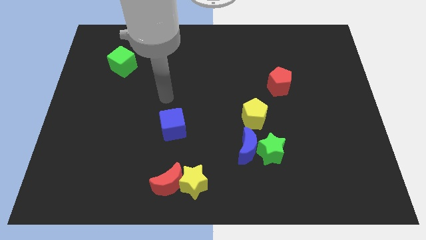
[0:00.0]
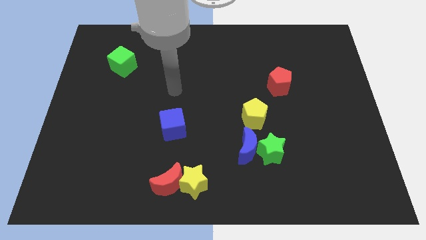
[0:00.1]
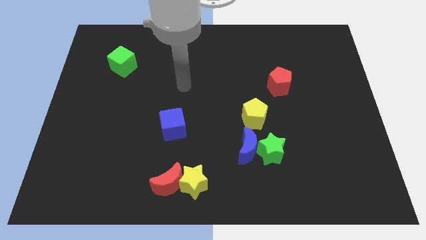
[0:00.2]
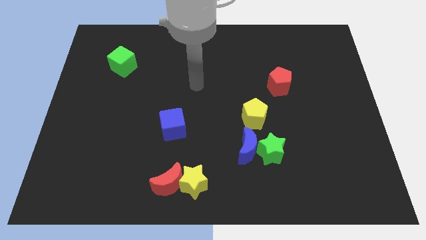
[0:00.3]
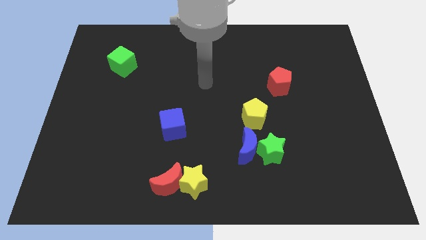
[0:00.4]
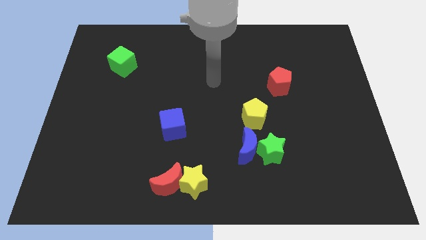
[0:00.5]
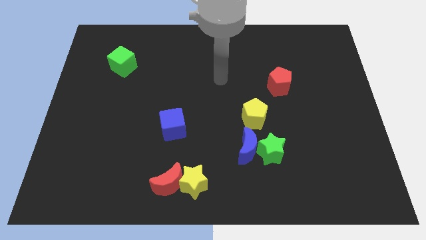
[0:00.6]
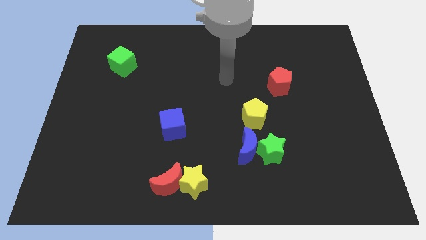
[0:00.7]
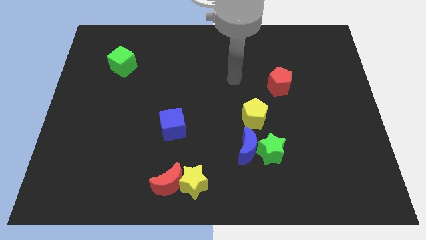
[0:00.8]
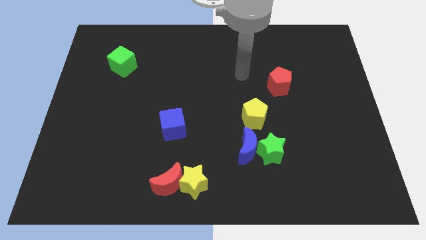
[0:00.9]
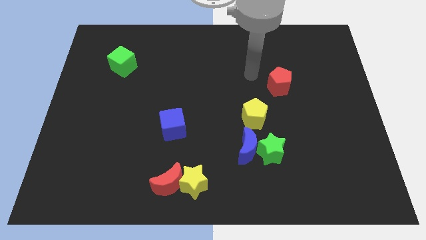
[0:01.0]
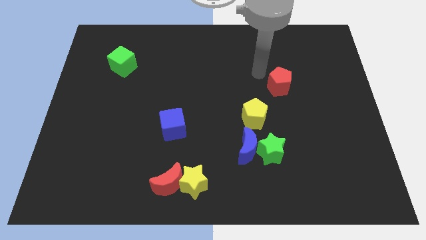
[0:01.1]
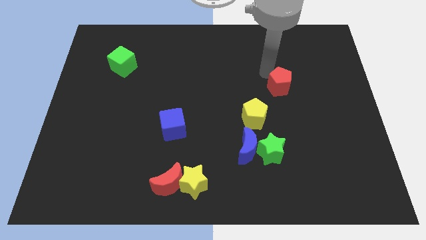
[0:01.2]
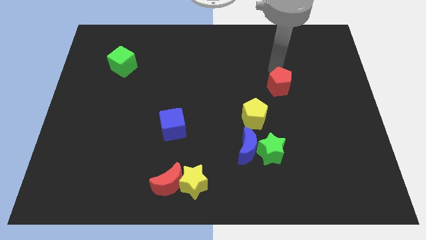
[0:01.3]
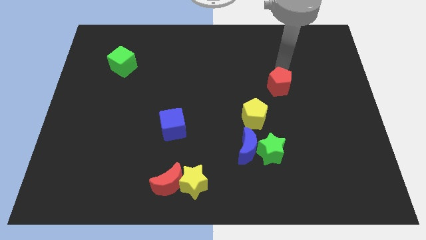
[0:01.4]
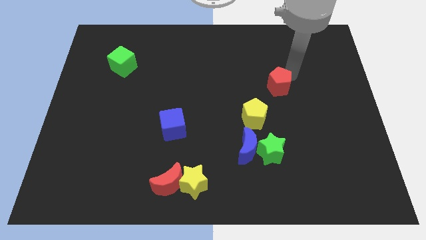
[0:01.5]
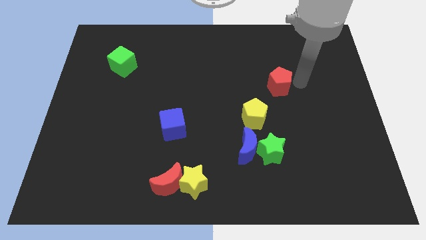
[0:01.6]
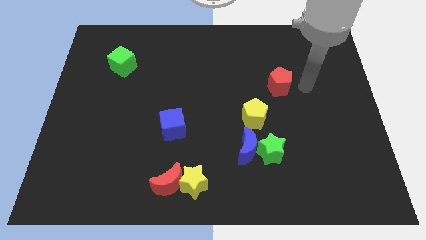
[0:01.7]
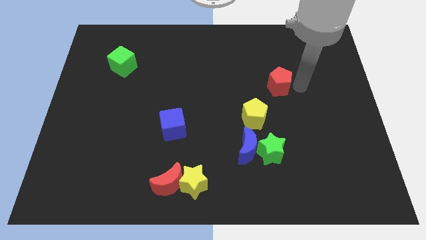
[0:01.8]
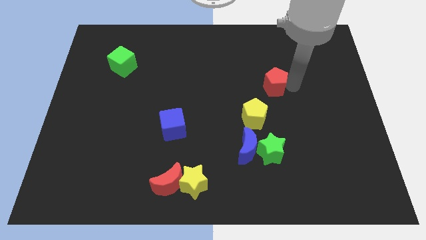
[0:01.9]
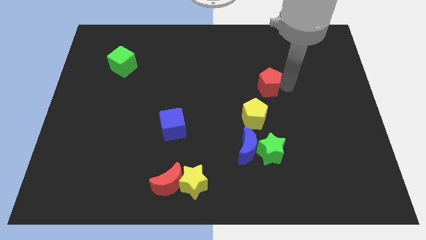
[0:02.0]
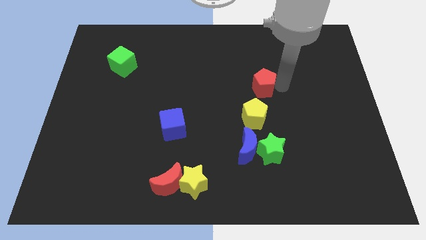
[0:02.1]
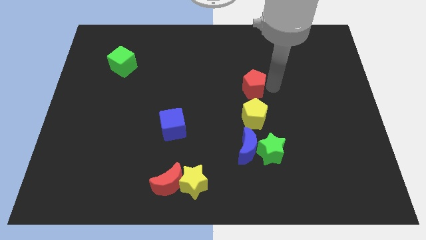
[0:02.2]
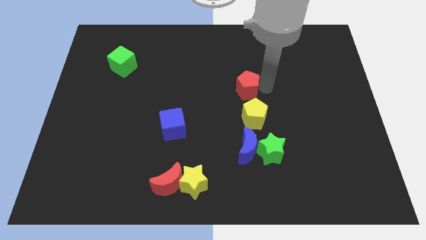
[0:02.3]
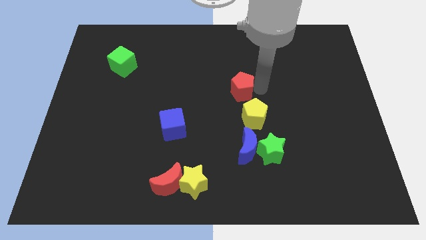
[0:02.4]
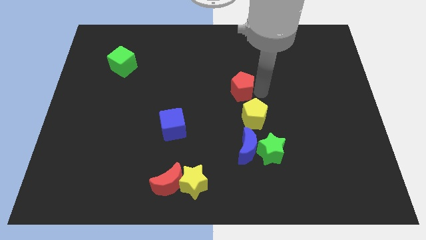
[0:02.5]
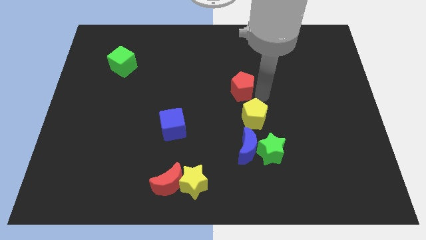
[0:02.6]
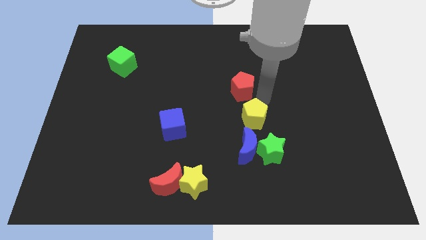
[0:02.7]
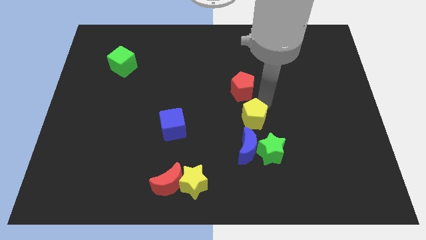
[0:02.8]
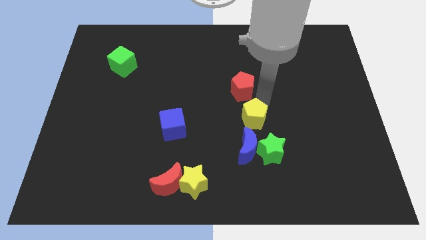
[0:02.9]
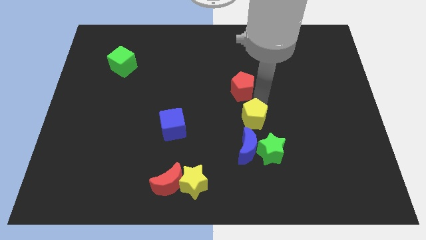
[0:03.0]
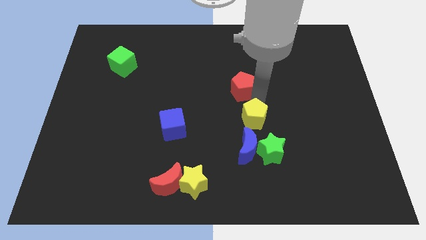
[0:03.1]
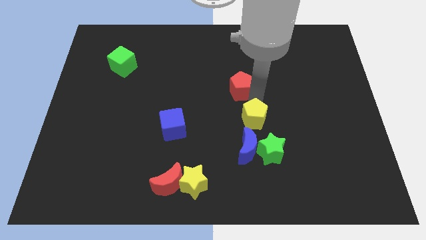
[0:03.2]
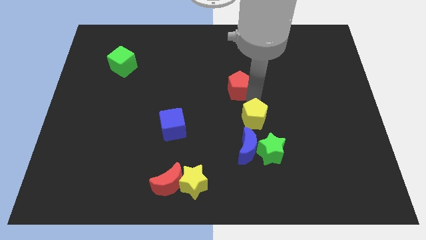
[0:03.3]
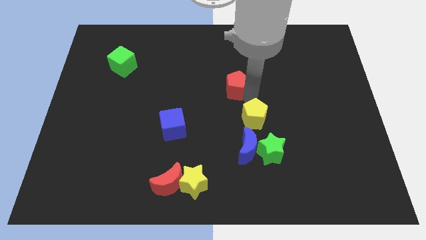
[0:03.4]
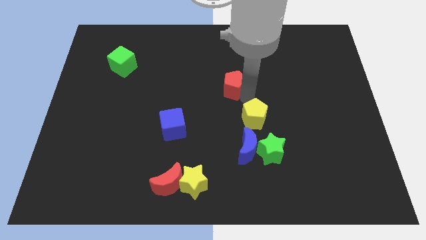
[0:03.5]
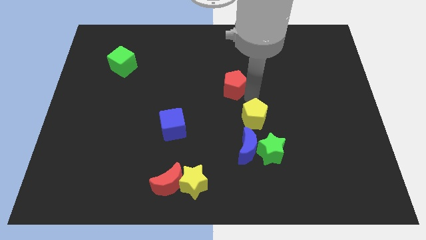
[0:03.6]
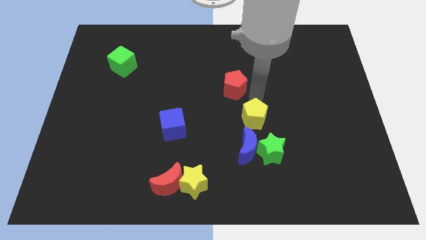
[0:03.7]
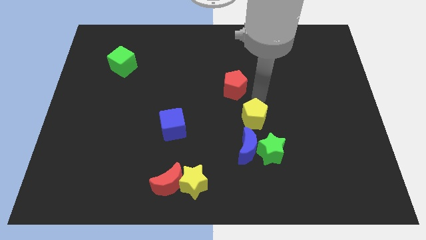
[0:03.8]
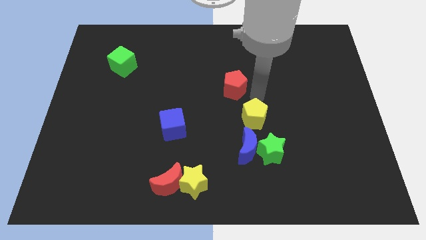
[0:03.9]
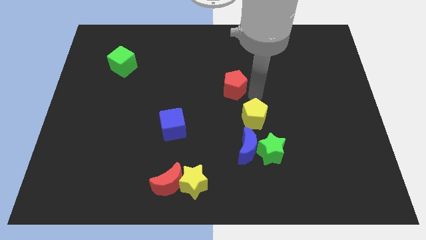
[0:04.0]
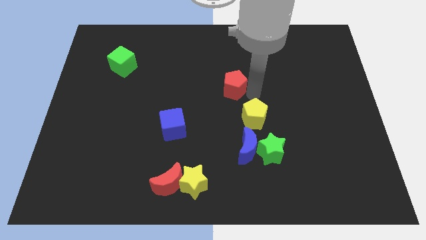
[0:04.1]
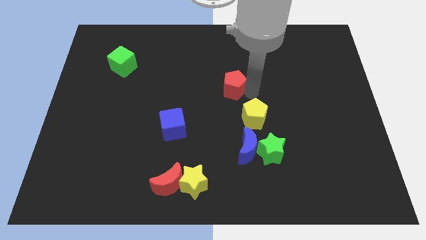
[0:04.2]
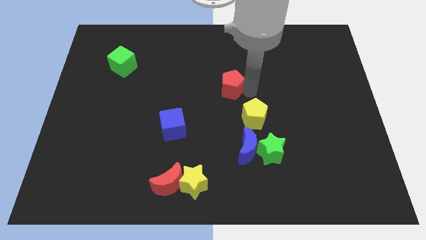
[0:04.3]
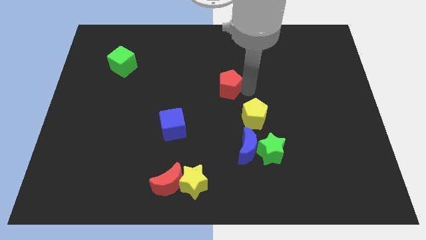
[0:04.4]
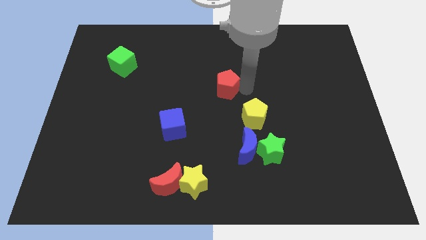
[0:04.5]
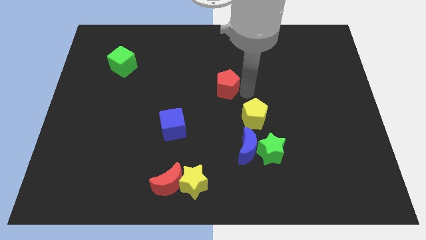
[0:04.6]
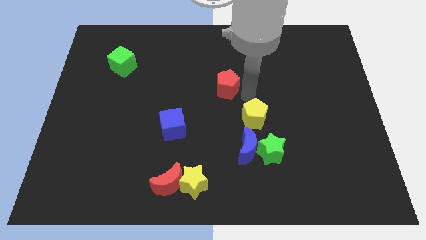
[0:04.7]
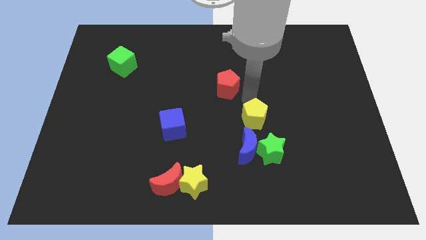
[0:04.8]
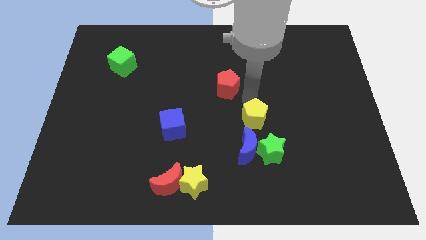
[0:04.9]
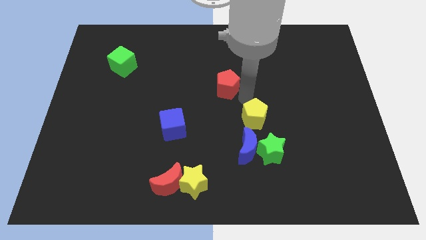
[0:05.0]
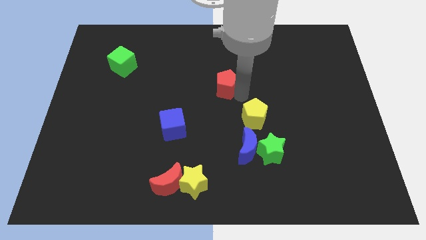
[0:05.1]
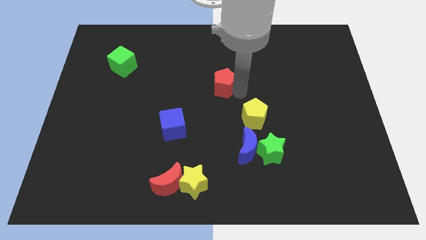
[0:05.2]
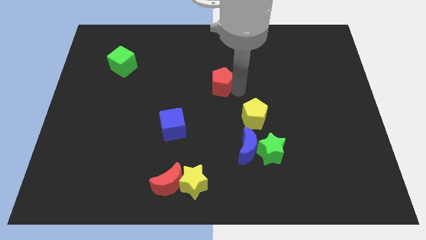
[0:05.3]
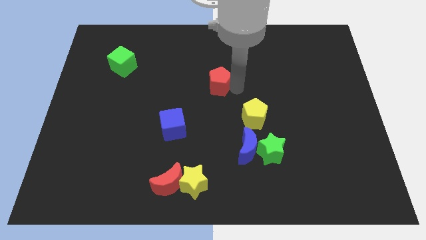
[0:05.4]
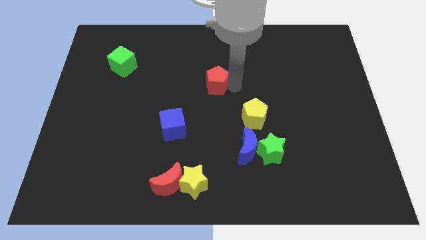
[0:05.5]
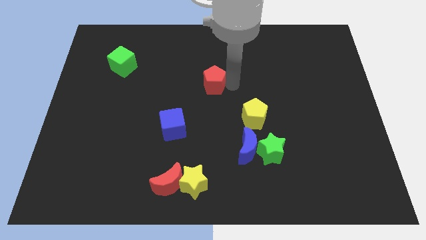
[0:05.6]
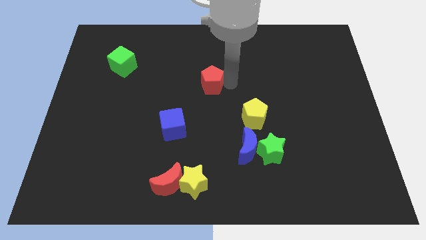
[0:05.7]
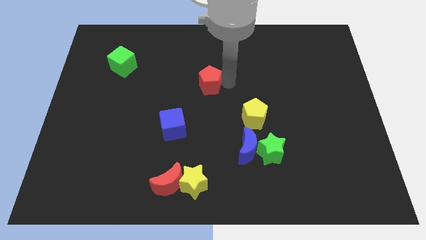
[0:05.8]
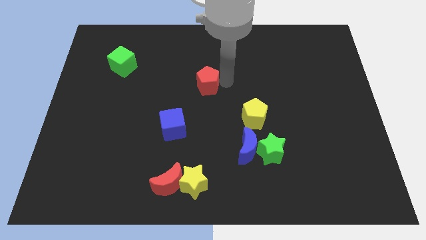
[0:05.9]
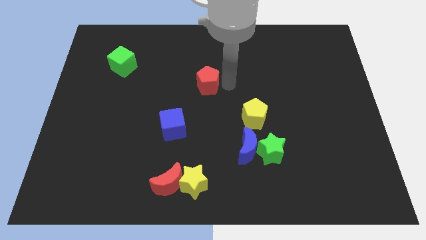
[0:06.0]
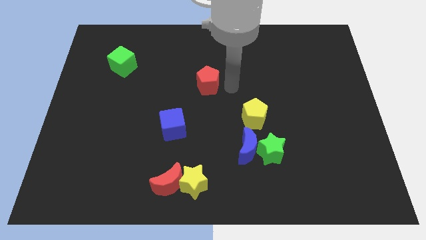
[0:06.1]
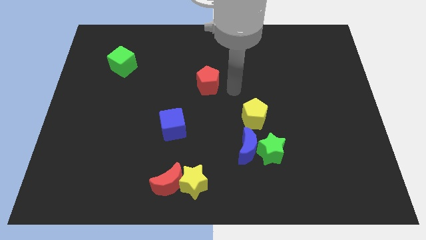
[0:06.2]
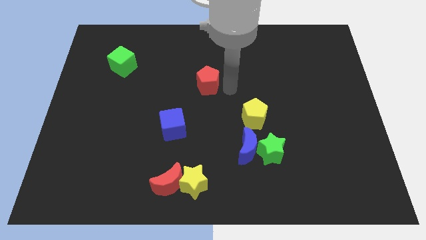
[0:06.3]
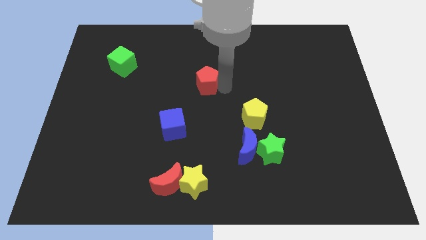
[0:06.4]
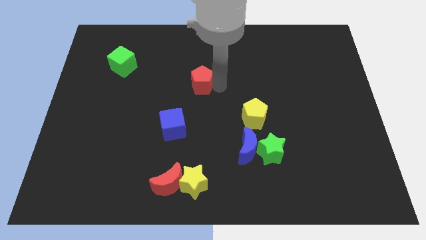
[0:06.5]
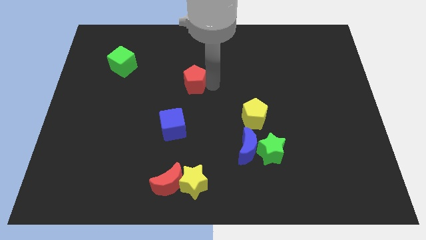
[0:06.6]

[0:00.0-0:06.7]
move the red pentagon left

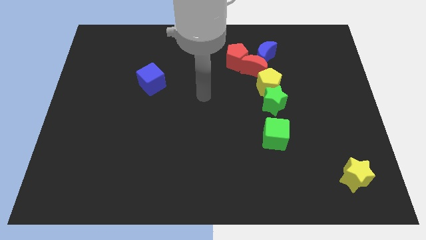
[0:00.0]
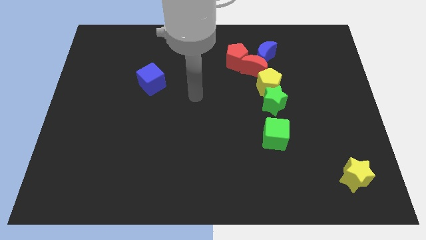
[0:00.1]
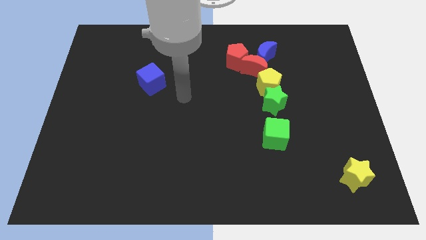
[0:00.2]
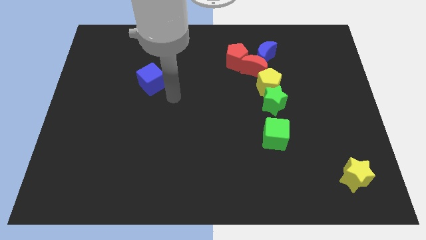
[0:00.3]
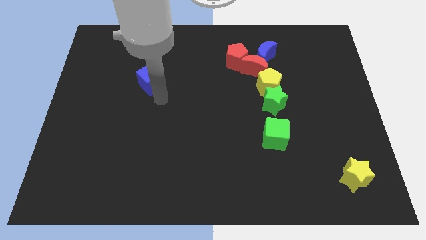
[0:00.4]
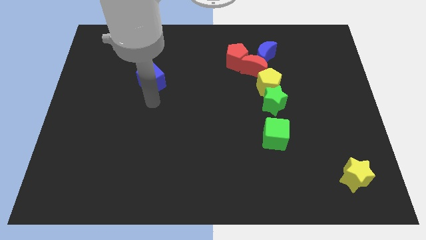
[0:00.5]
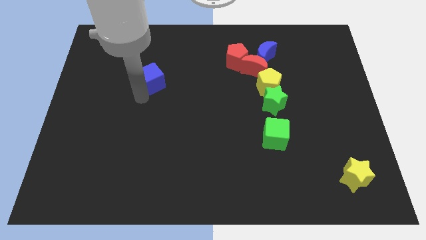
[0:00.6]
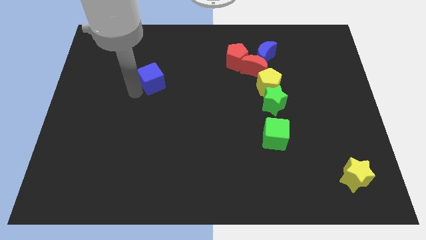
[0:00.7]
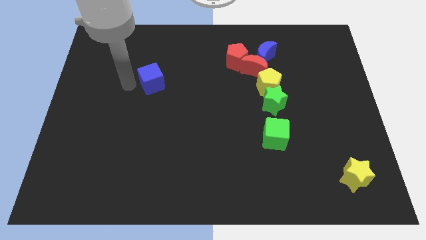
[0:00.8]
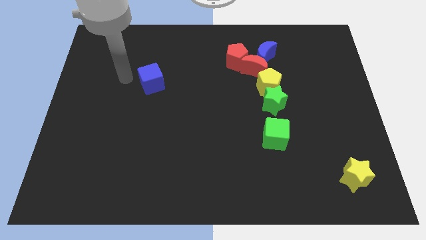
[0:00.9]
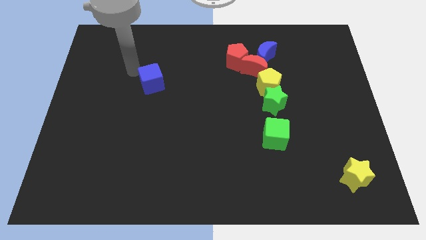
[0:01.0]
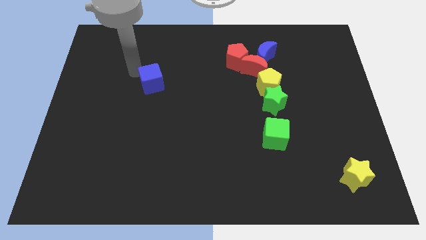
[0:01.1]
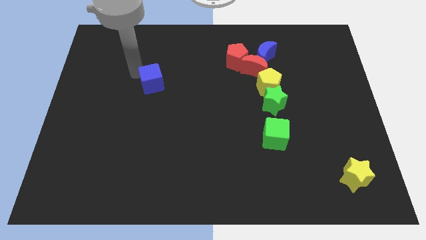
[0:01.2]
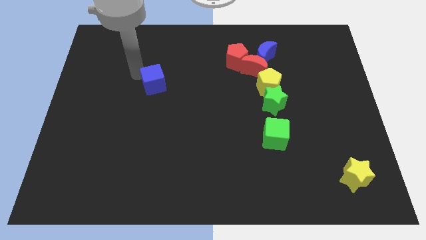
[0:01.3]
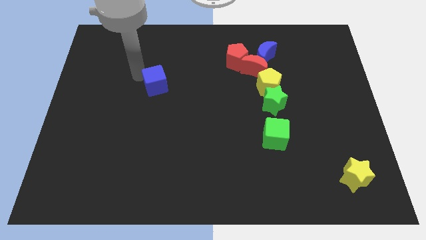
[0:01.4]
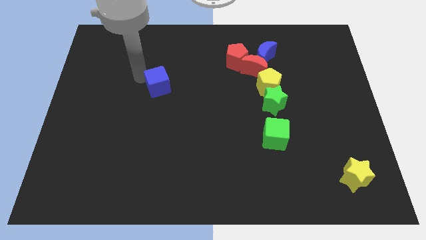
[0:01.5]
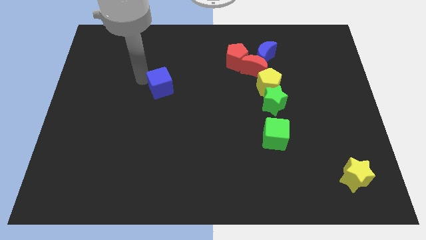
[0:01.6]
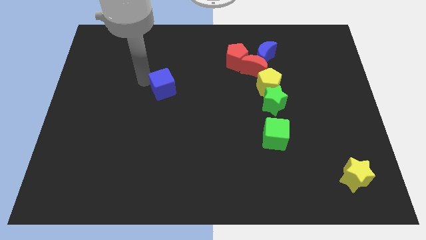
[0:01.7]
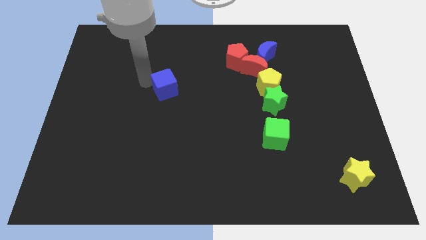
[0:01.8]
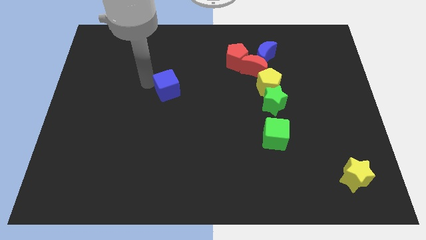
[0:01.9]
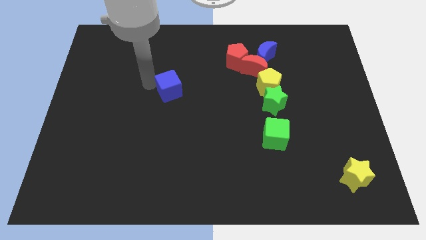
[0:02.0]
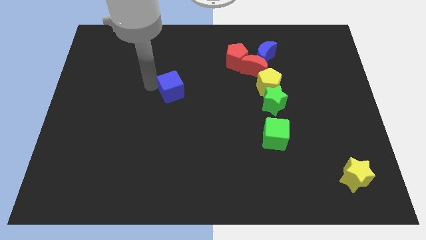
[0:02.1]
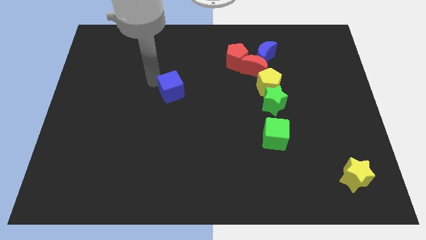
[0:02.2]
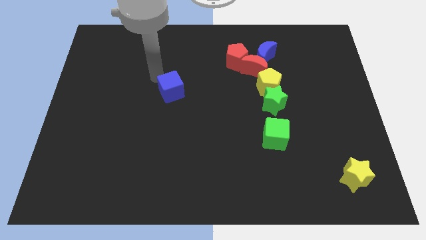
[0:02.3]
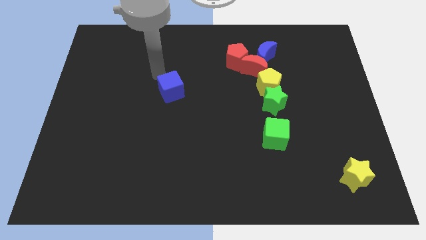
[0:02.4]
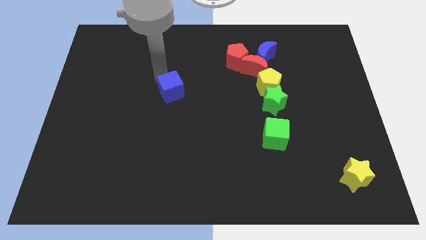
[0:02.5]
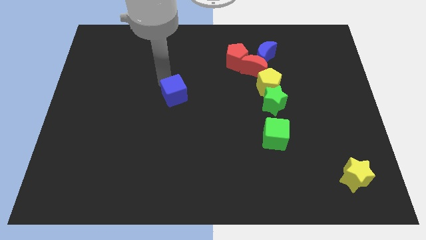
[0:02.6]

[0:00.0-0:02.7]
slightly move the blue cube down and to the right diagonally
